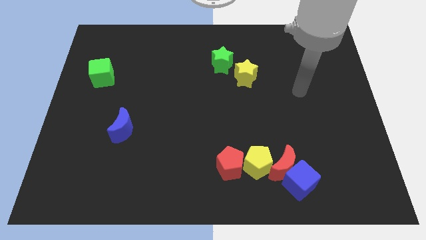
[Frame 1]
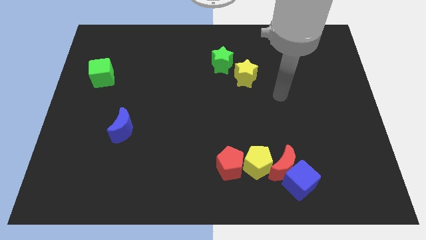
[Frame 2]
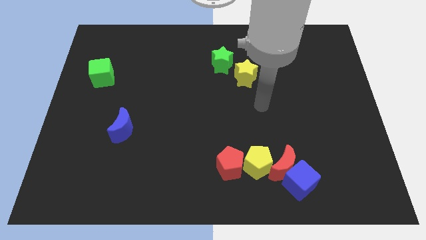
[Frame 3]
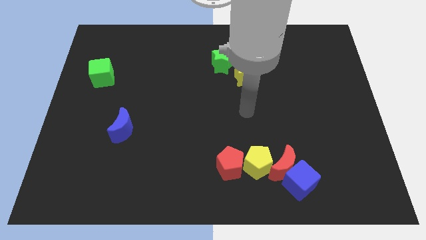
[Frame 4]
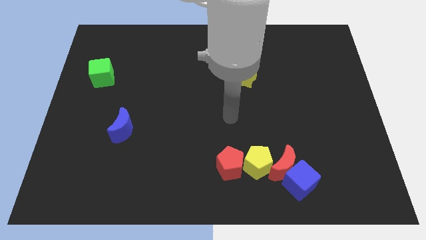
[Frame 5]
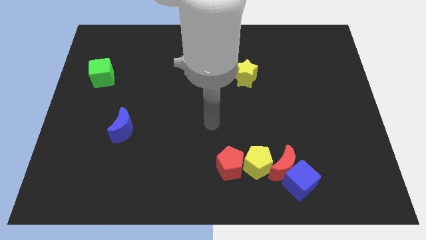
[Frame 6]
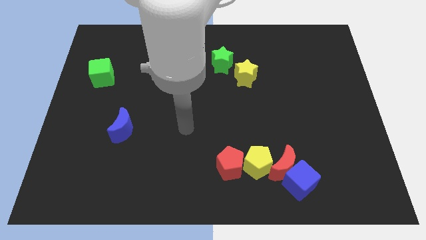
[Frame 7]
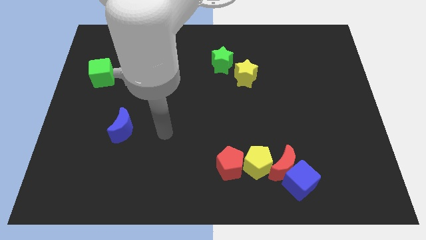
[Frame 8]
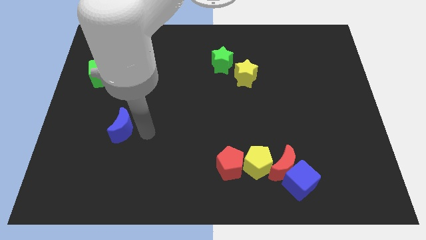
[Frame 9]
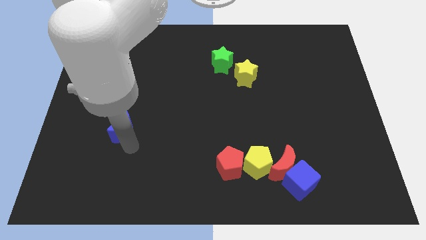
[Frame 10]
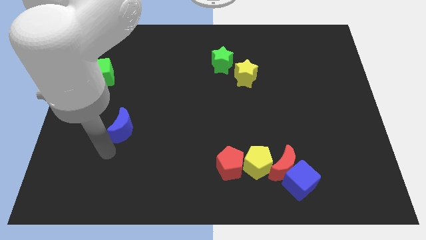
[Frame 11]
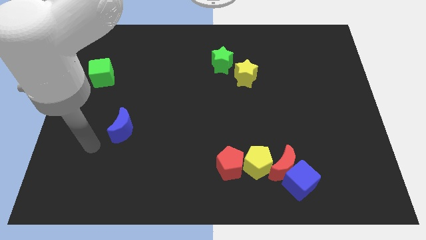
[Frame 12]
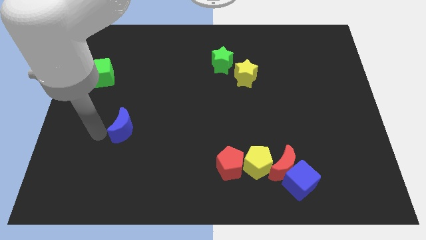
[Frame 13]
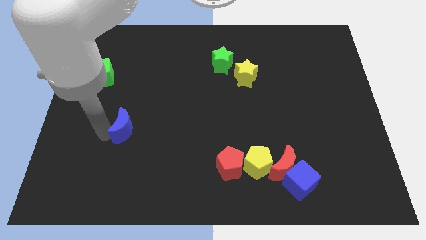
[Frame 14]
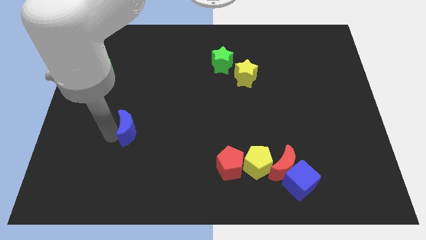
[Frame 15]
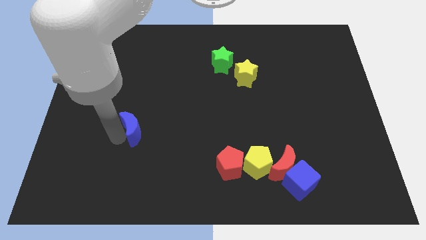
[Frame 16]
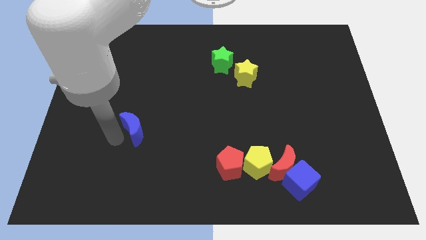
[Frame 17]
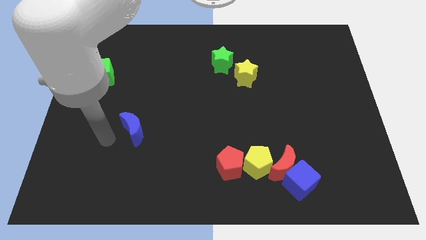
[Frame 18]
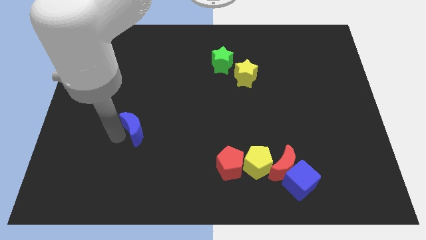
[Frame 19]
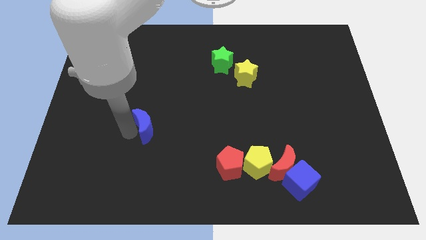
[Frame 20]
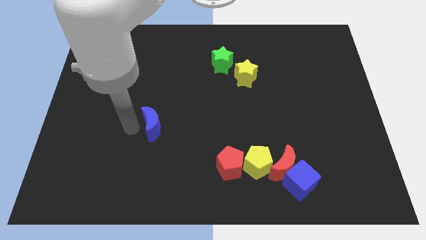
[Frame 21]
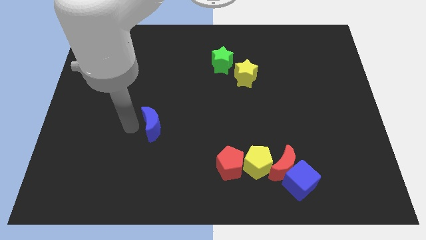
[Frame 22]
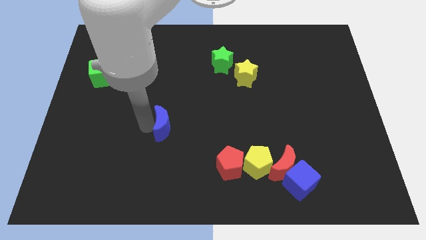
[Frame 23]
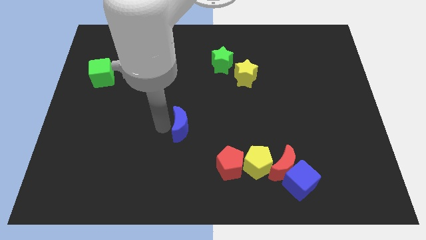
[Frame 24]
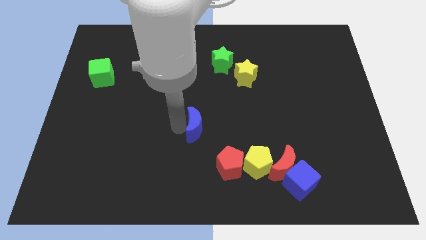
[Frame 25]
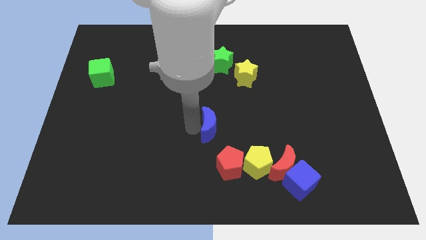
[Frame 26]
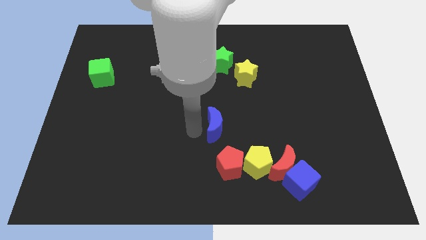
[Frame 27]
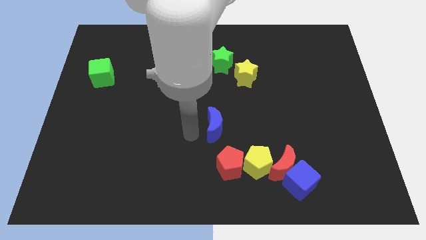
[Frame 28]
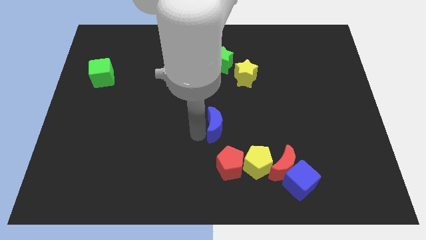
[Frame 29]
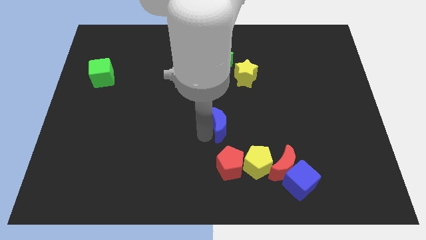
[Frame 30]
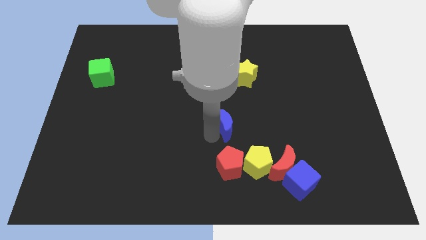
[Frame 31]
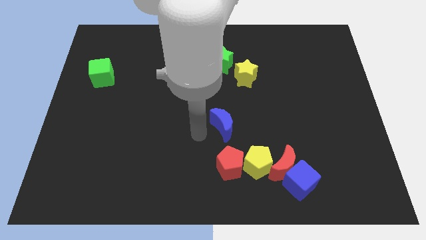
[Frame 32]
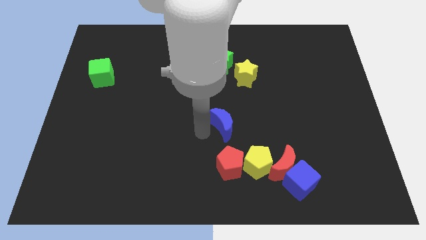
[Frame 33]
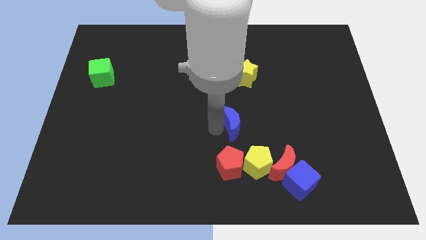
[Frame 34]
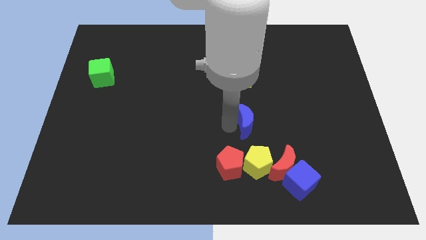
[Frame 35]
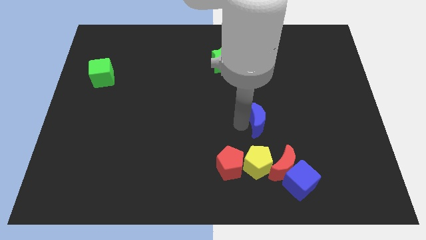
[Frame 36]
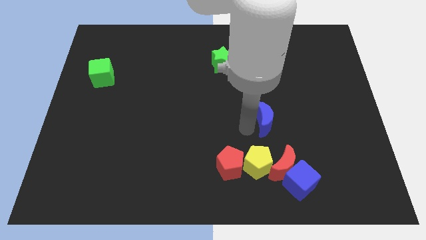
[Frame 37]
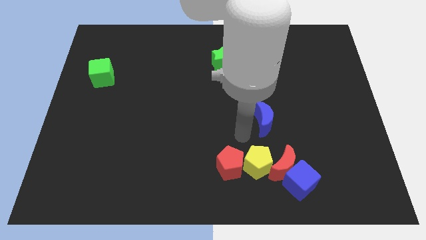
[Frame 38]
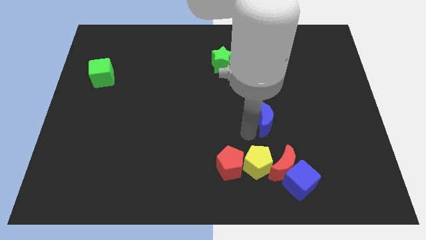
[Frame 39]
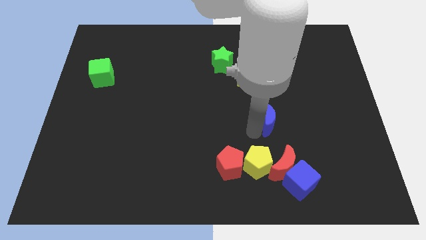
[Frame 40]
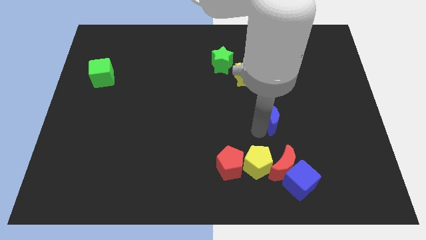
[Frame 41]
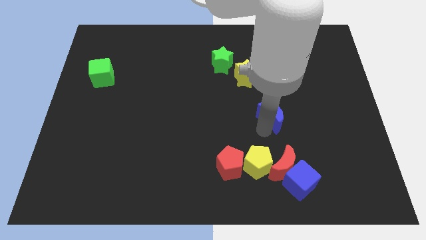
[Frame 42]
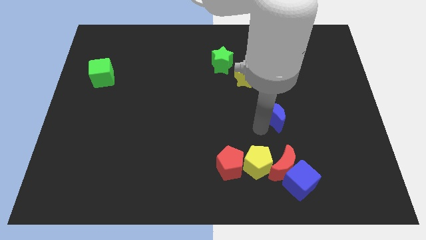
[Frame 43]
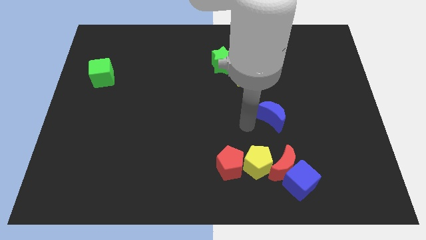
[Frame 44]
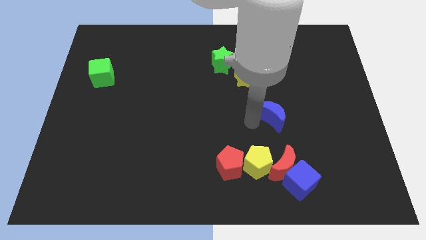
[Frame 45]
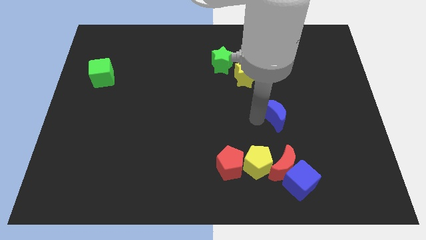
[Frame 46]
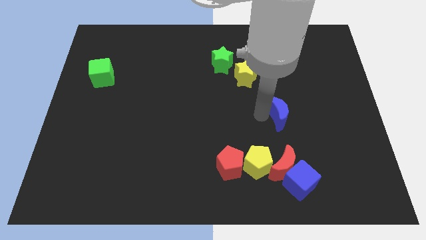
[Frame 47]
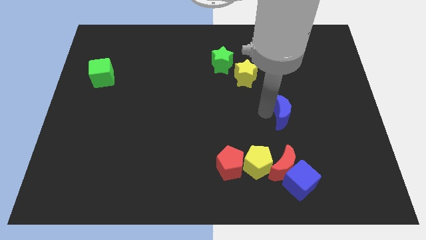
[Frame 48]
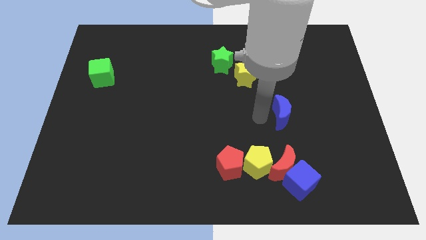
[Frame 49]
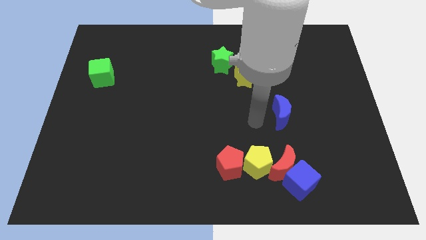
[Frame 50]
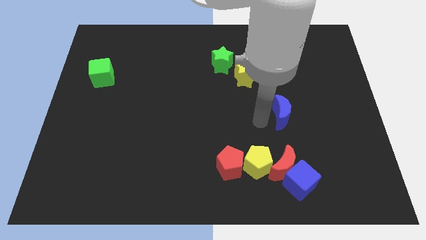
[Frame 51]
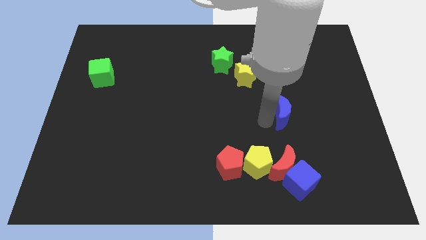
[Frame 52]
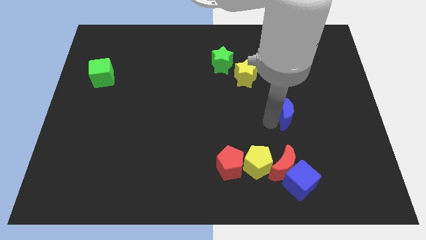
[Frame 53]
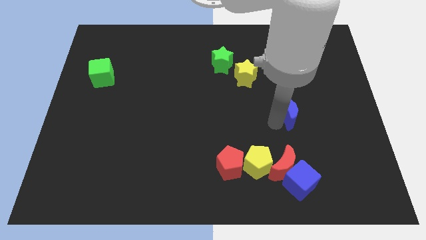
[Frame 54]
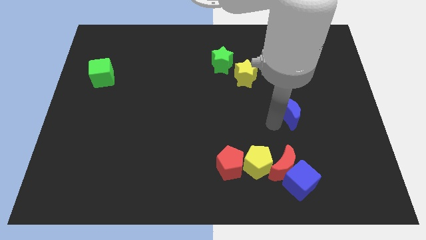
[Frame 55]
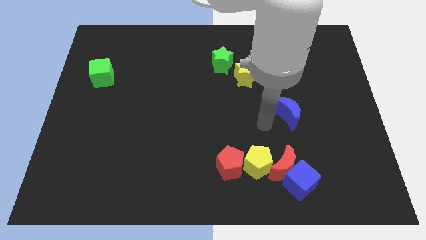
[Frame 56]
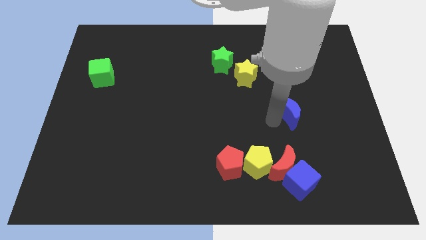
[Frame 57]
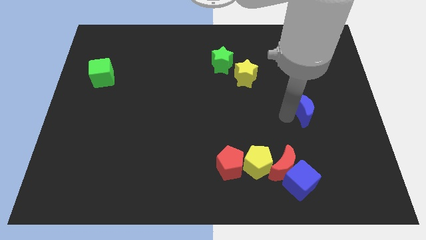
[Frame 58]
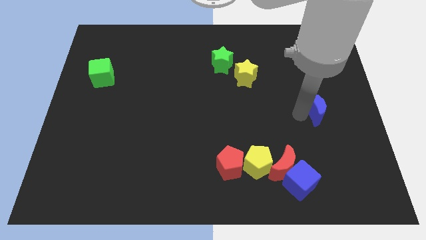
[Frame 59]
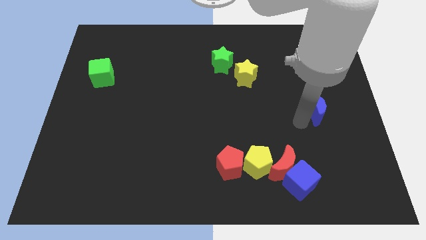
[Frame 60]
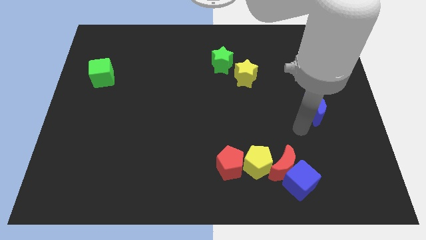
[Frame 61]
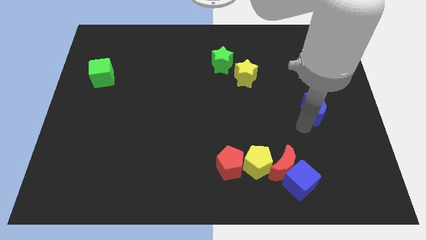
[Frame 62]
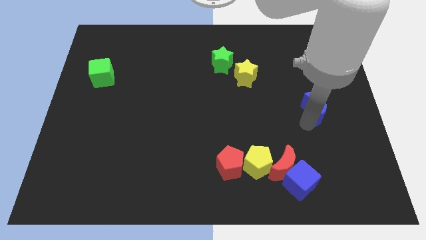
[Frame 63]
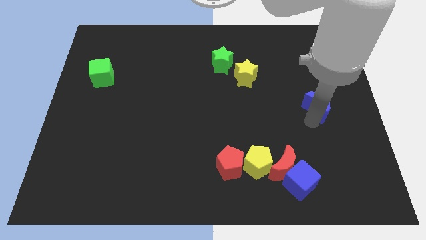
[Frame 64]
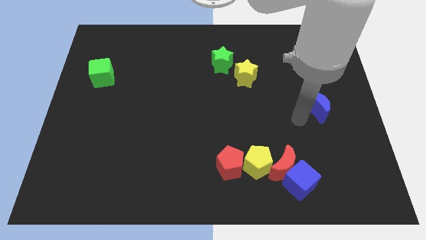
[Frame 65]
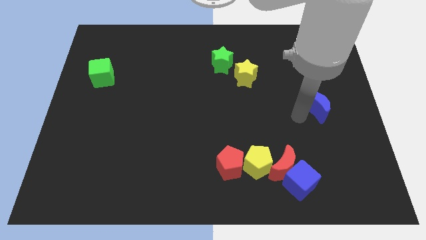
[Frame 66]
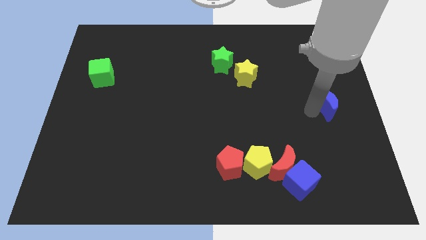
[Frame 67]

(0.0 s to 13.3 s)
move the blue moon to the right side

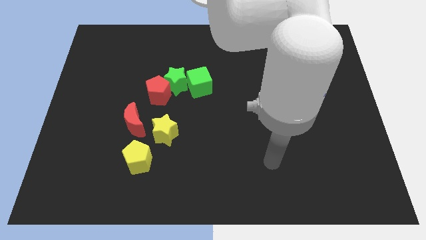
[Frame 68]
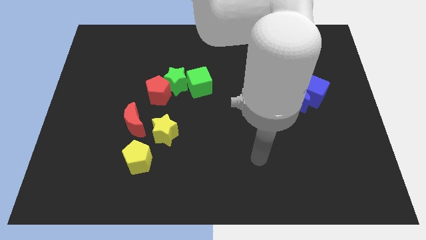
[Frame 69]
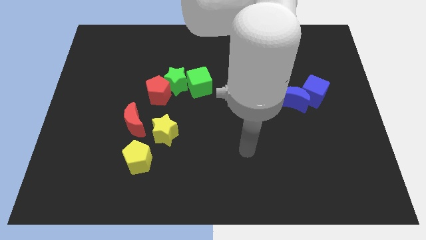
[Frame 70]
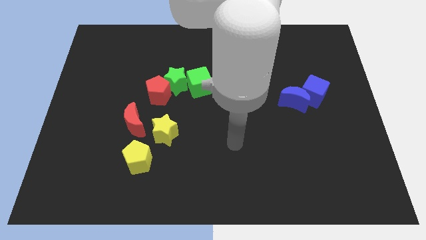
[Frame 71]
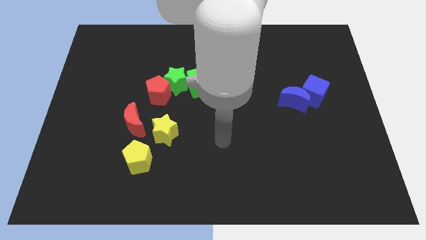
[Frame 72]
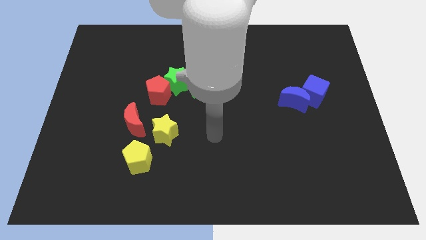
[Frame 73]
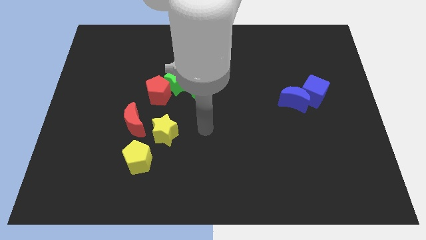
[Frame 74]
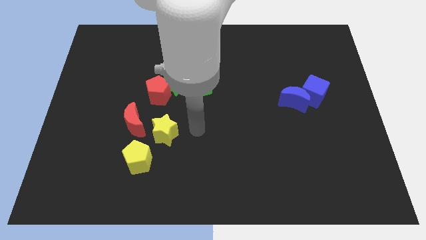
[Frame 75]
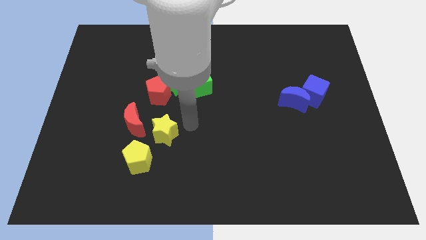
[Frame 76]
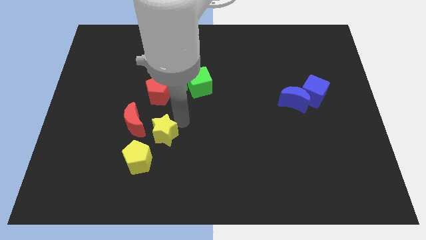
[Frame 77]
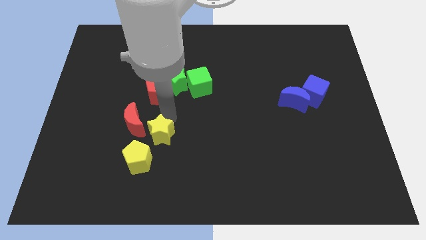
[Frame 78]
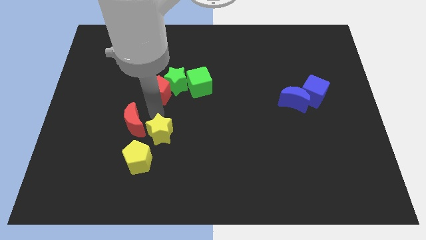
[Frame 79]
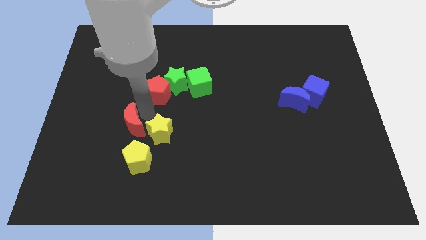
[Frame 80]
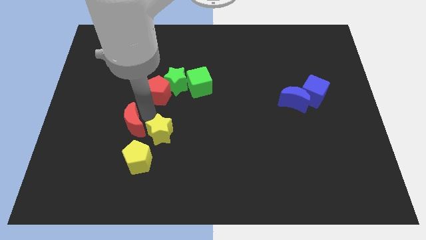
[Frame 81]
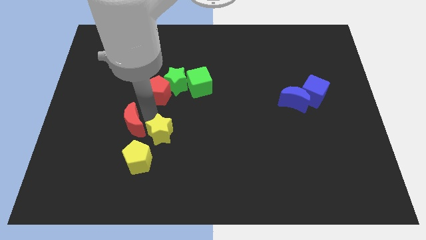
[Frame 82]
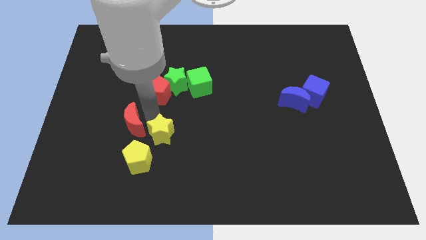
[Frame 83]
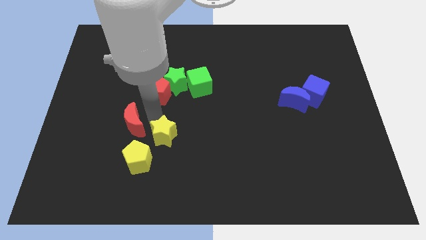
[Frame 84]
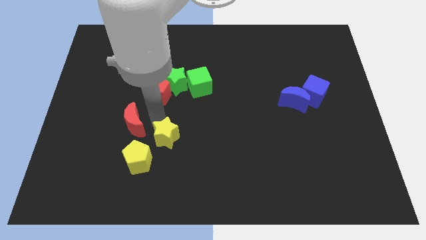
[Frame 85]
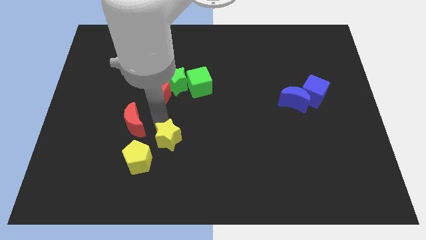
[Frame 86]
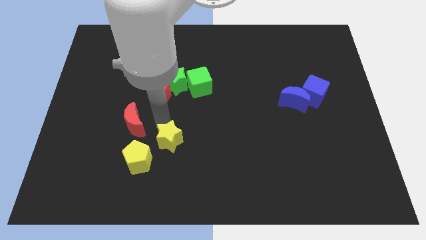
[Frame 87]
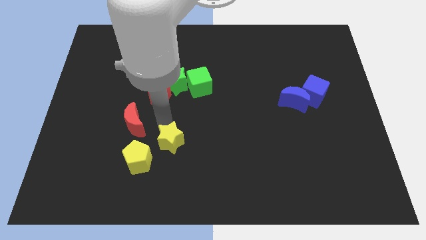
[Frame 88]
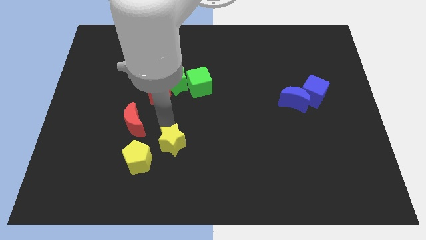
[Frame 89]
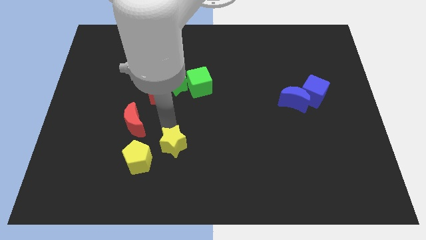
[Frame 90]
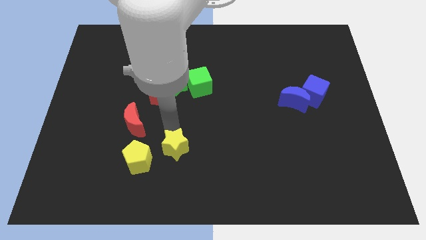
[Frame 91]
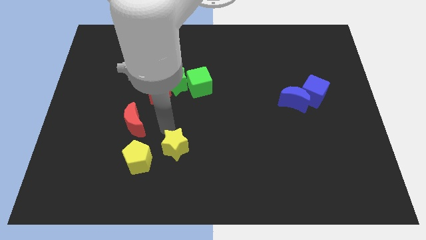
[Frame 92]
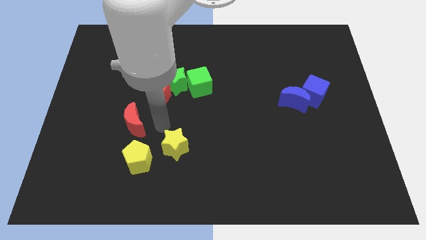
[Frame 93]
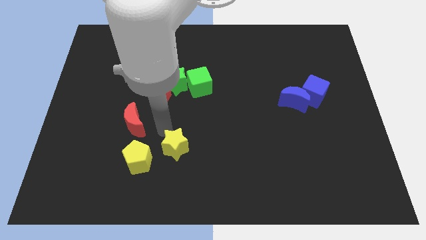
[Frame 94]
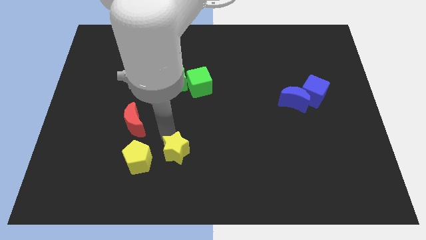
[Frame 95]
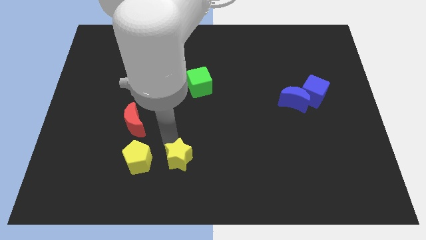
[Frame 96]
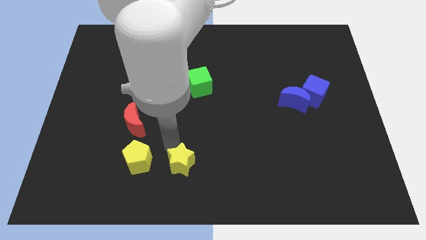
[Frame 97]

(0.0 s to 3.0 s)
move the yellow star to the bottom
